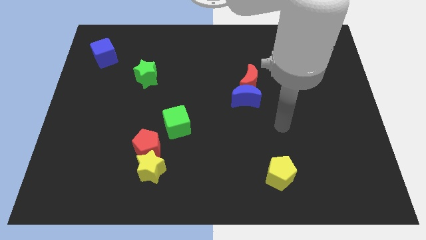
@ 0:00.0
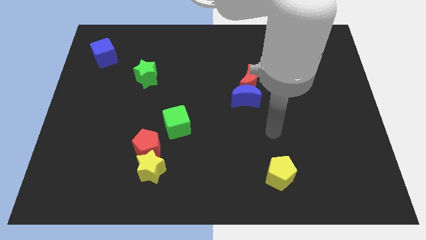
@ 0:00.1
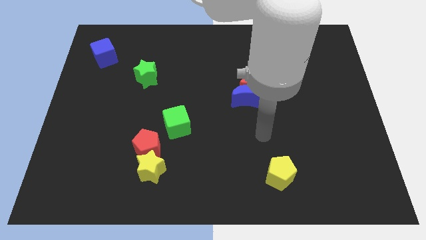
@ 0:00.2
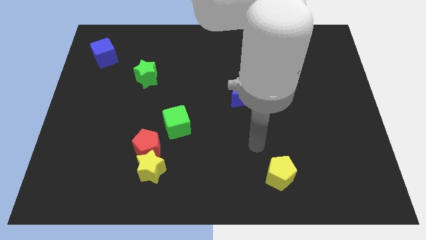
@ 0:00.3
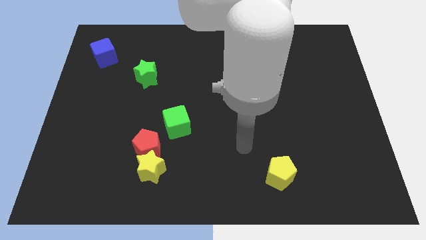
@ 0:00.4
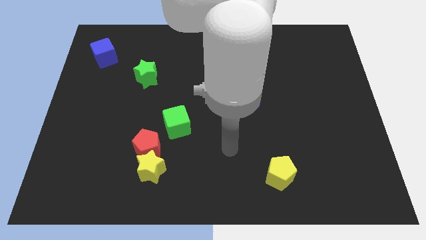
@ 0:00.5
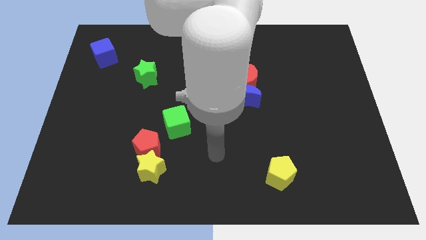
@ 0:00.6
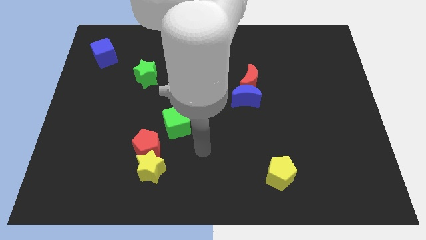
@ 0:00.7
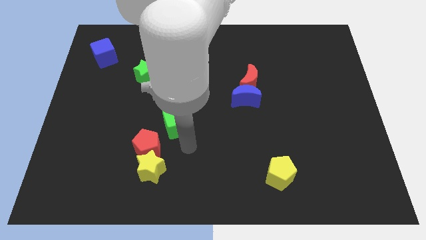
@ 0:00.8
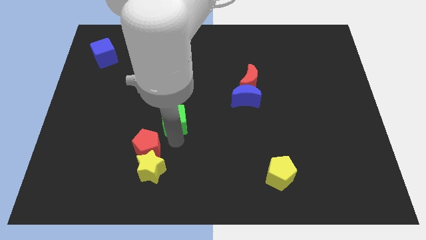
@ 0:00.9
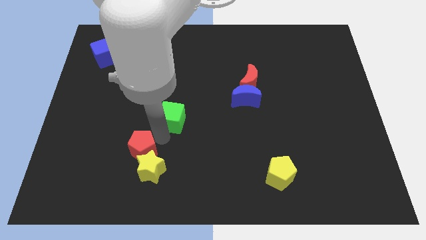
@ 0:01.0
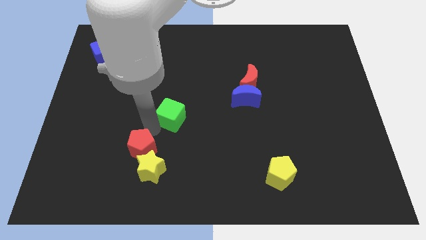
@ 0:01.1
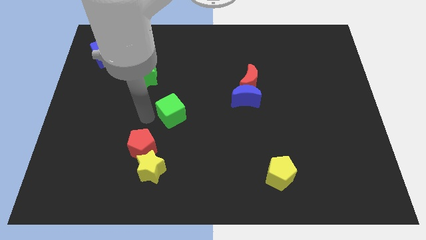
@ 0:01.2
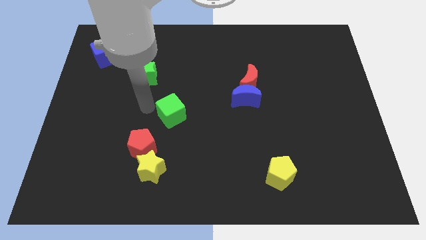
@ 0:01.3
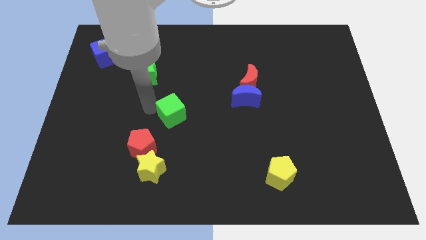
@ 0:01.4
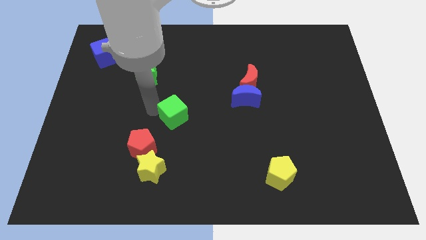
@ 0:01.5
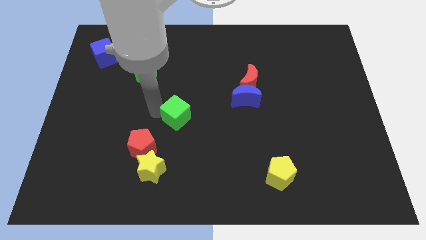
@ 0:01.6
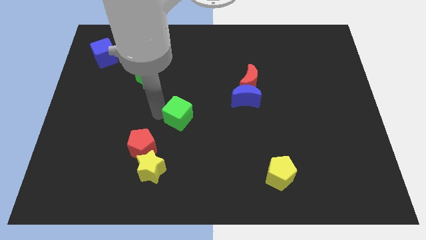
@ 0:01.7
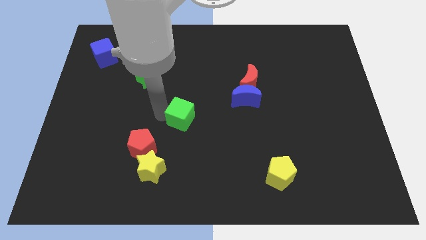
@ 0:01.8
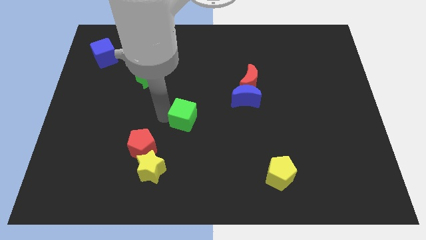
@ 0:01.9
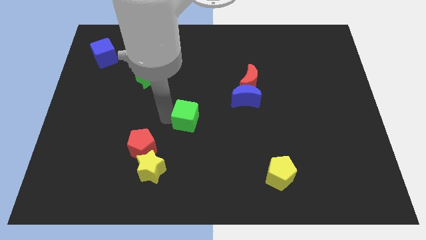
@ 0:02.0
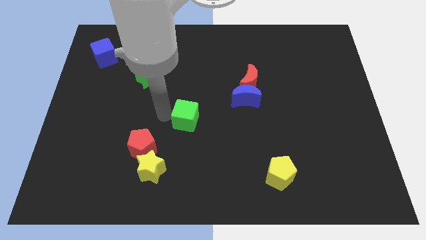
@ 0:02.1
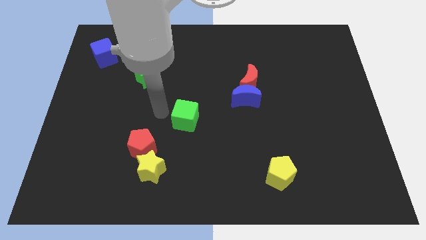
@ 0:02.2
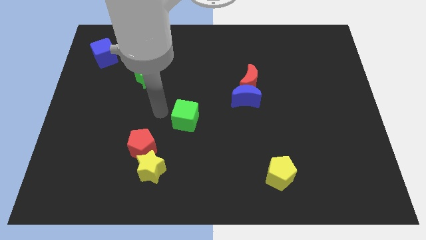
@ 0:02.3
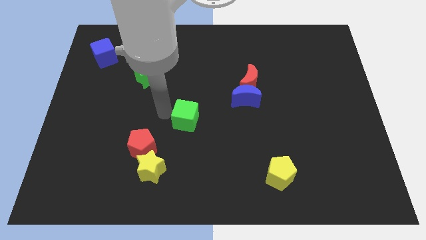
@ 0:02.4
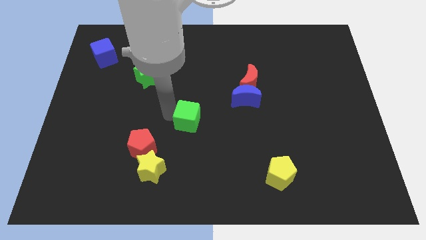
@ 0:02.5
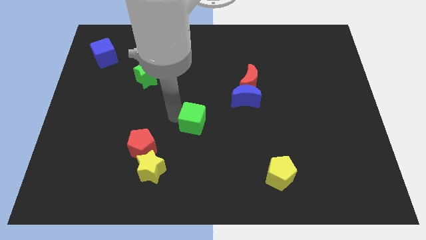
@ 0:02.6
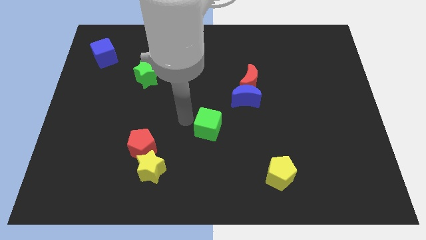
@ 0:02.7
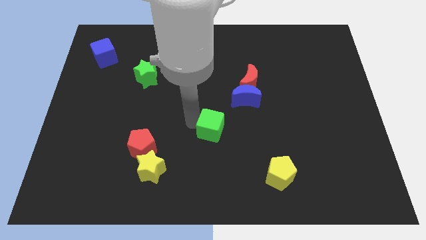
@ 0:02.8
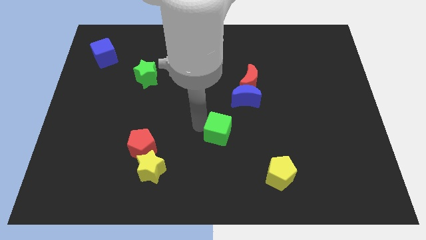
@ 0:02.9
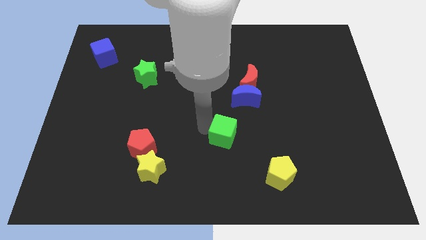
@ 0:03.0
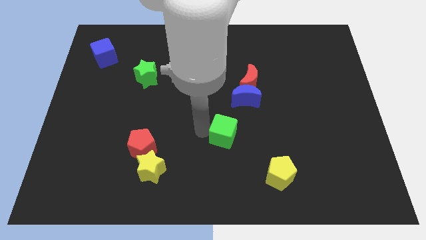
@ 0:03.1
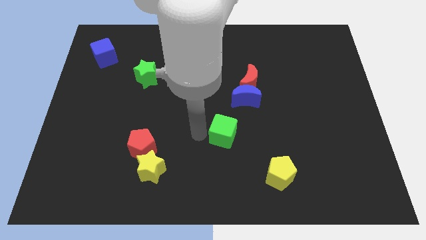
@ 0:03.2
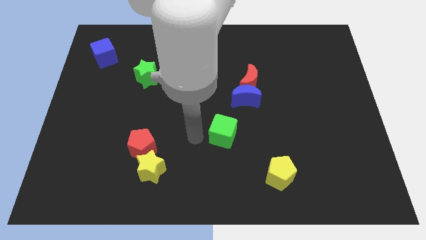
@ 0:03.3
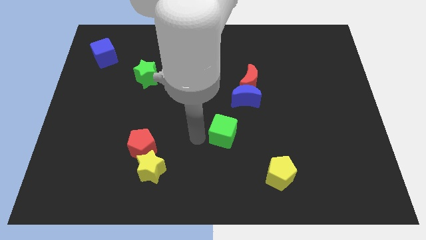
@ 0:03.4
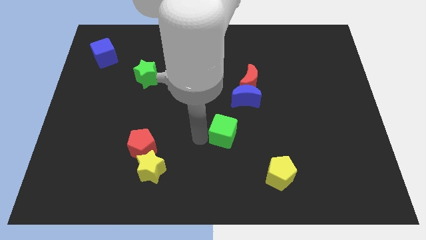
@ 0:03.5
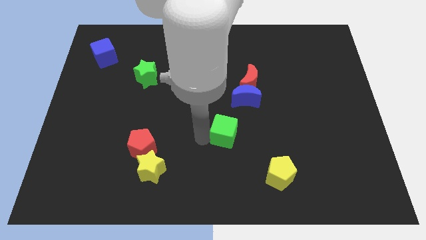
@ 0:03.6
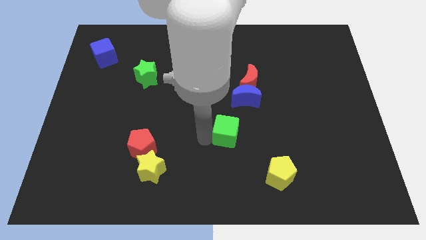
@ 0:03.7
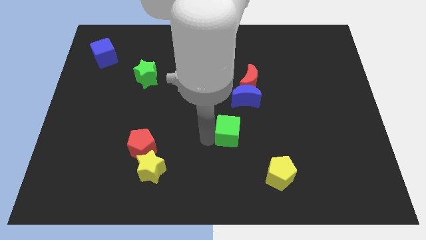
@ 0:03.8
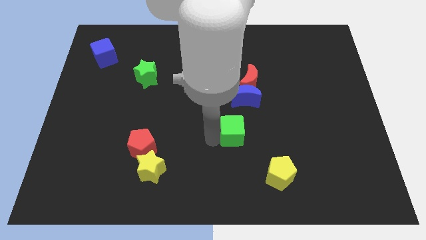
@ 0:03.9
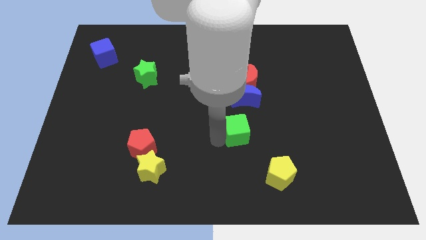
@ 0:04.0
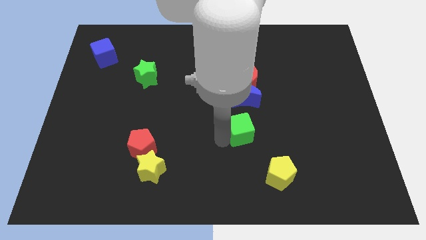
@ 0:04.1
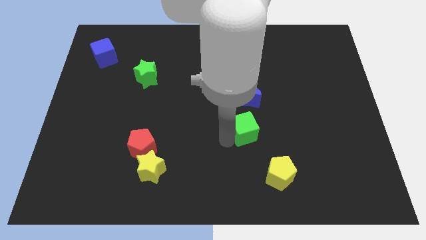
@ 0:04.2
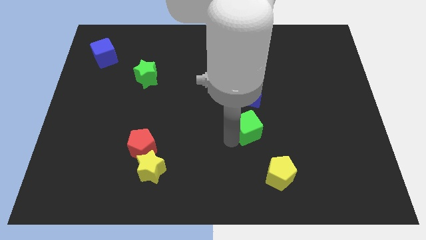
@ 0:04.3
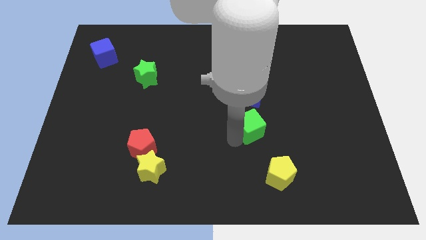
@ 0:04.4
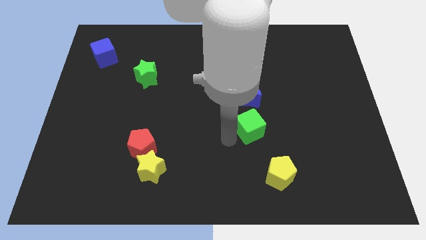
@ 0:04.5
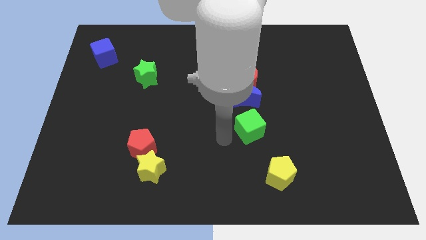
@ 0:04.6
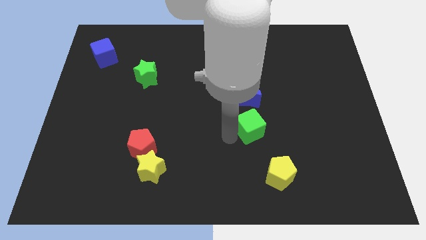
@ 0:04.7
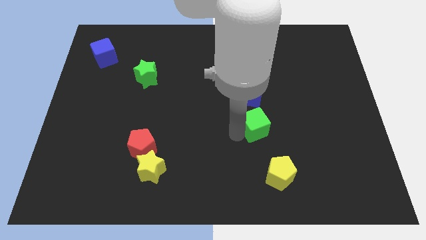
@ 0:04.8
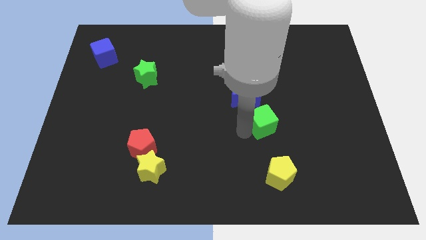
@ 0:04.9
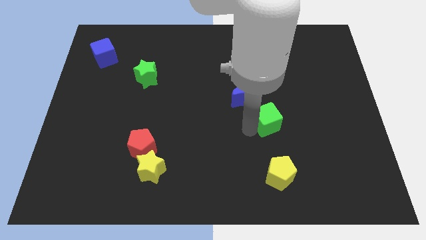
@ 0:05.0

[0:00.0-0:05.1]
push the green cube right

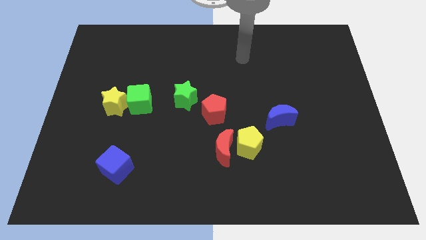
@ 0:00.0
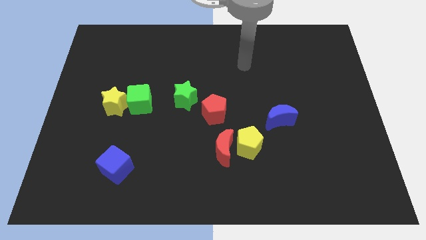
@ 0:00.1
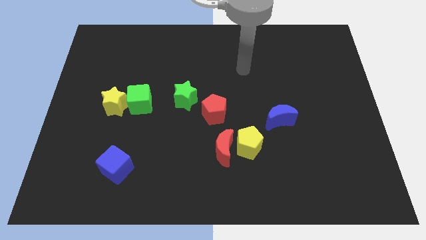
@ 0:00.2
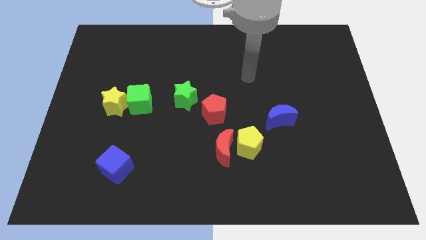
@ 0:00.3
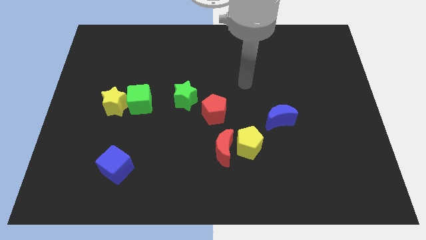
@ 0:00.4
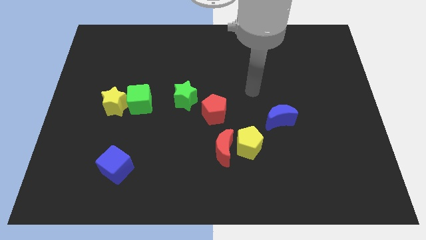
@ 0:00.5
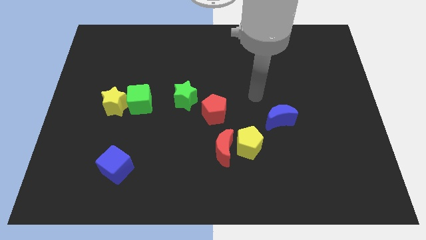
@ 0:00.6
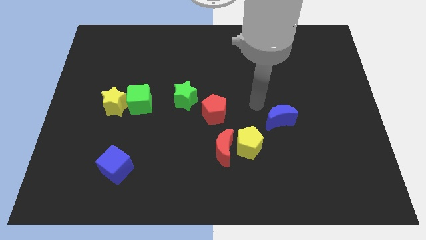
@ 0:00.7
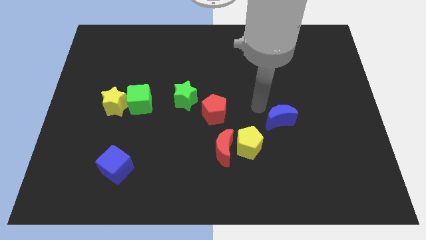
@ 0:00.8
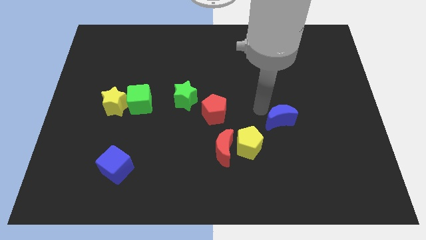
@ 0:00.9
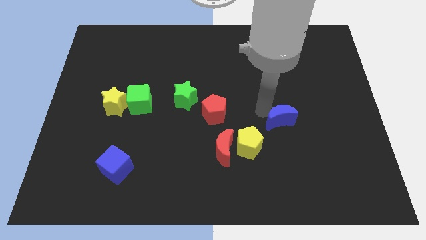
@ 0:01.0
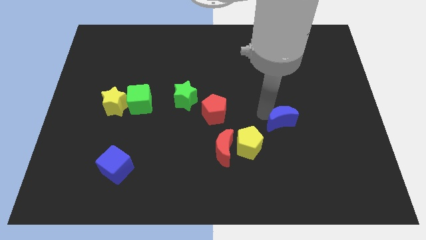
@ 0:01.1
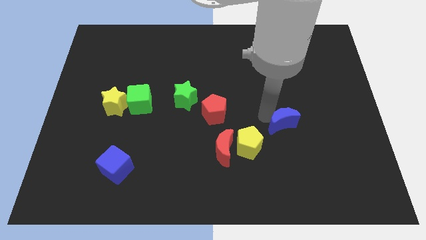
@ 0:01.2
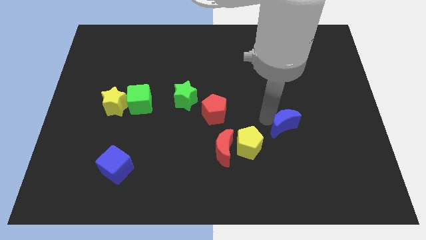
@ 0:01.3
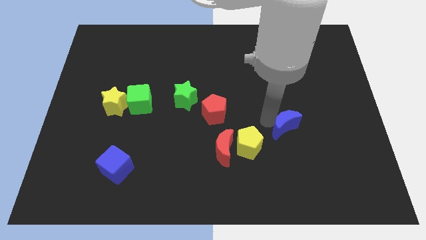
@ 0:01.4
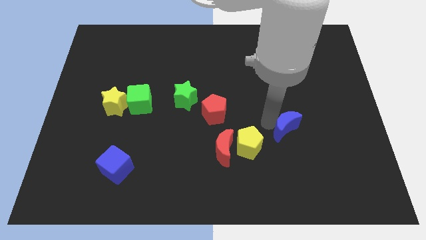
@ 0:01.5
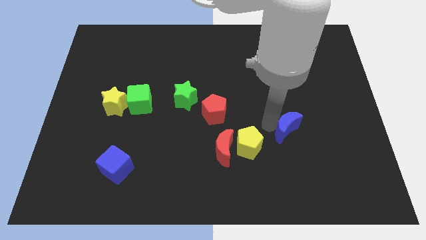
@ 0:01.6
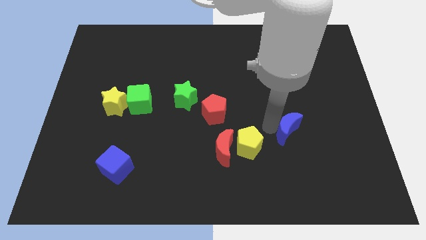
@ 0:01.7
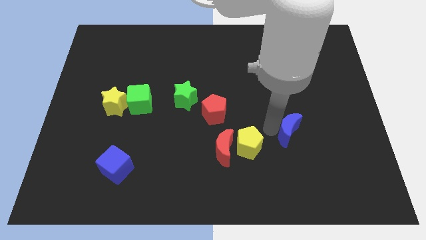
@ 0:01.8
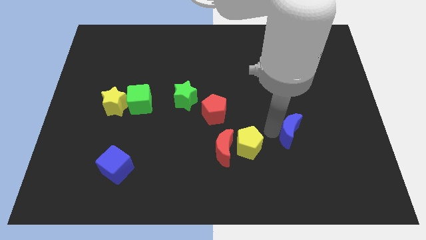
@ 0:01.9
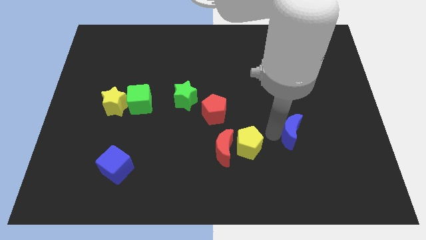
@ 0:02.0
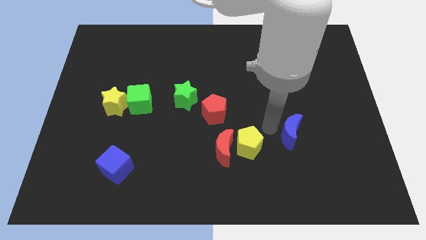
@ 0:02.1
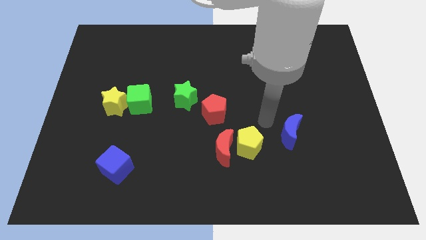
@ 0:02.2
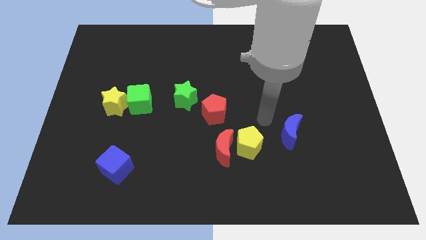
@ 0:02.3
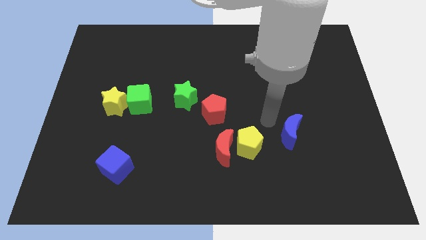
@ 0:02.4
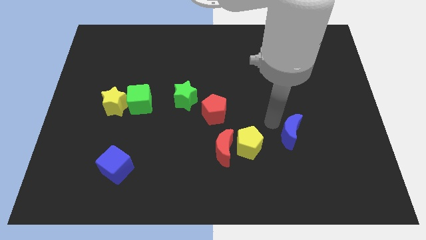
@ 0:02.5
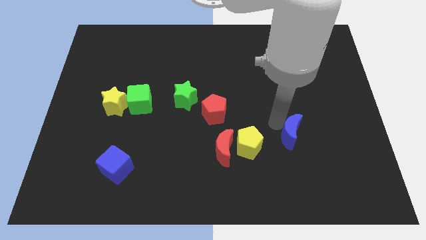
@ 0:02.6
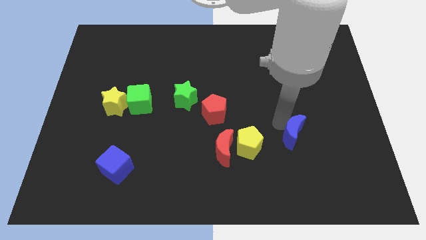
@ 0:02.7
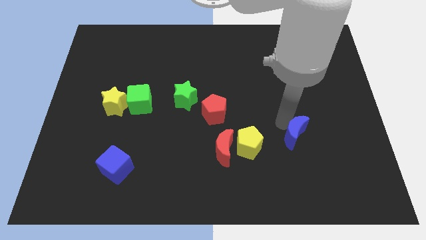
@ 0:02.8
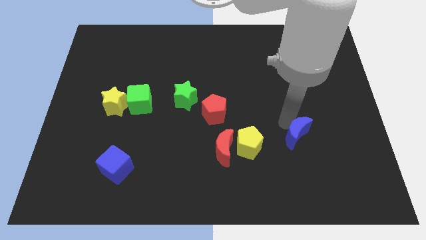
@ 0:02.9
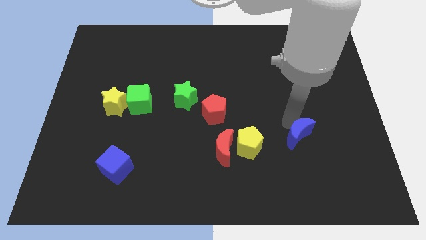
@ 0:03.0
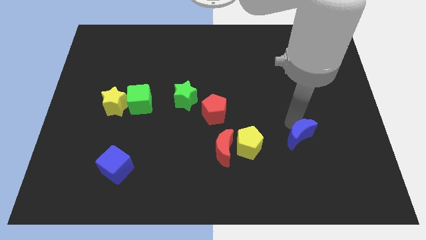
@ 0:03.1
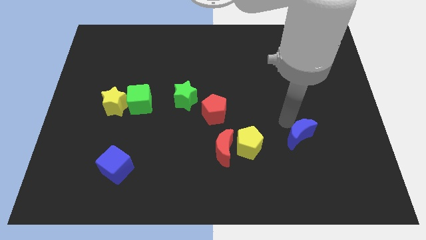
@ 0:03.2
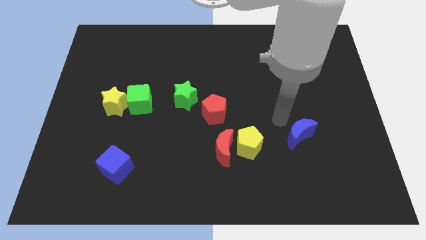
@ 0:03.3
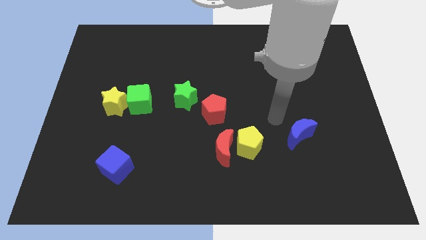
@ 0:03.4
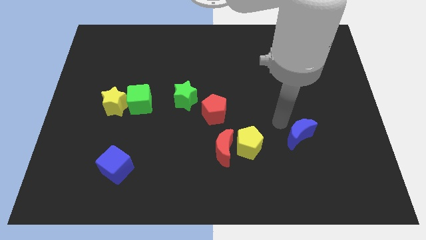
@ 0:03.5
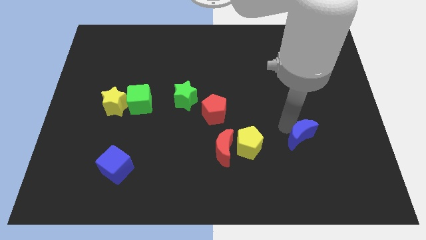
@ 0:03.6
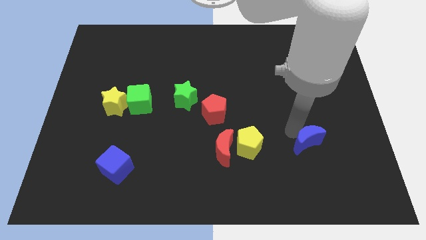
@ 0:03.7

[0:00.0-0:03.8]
slide the blue moon slightly down and then right
